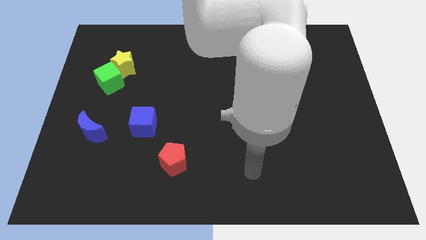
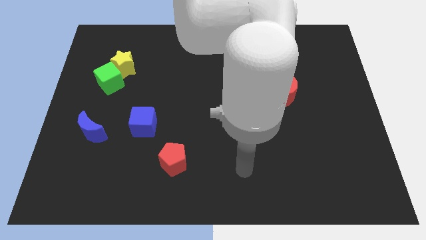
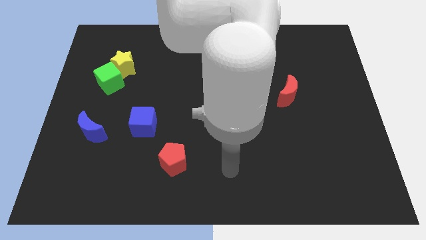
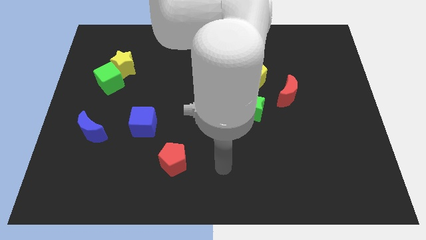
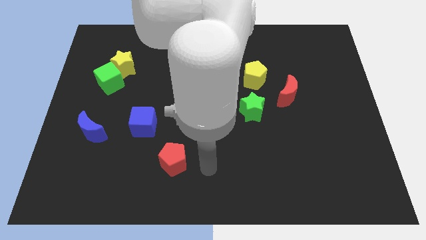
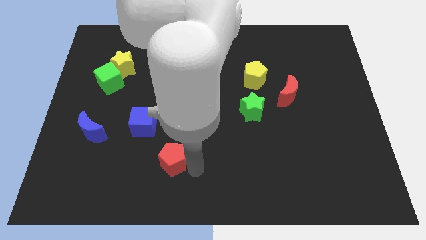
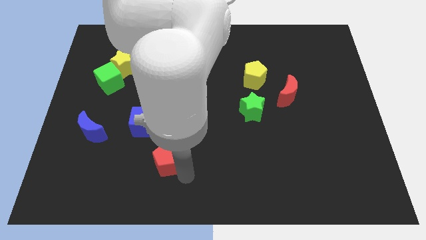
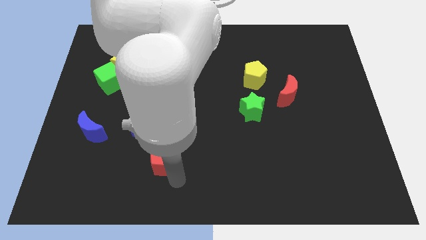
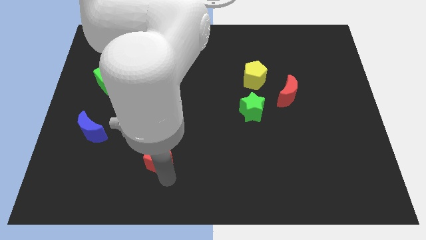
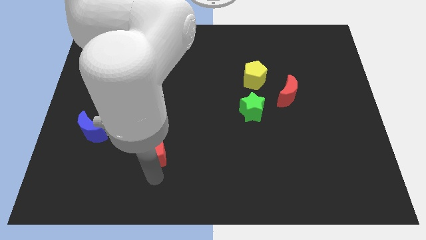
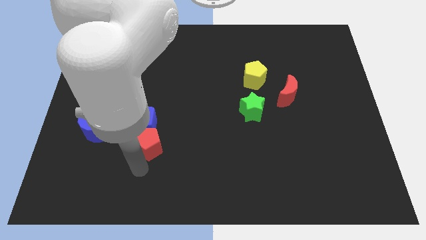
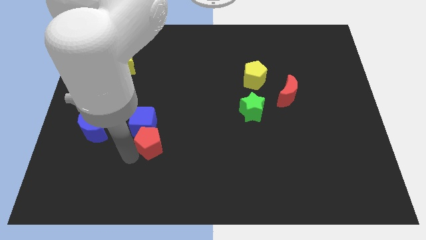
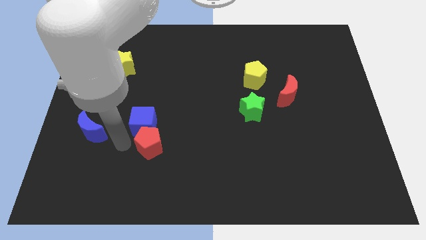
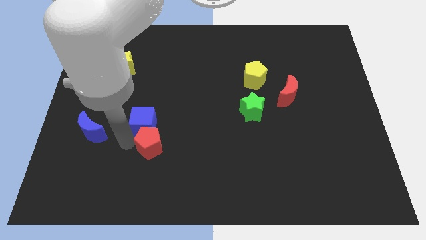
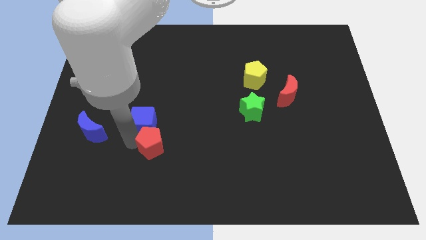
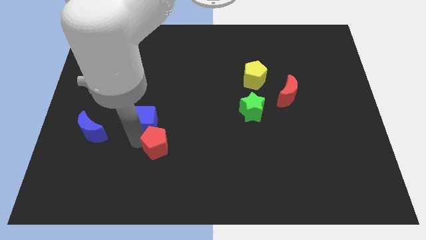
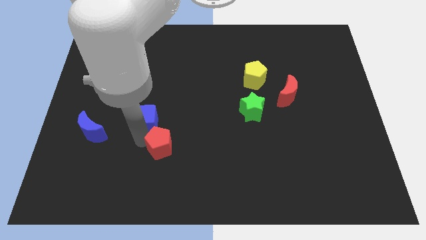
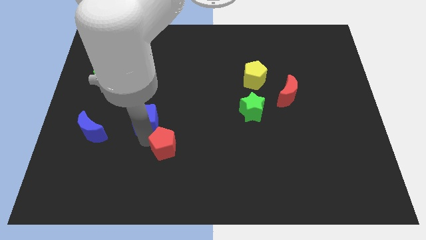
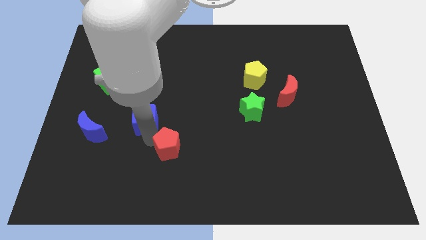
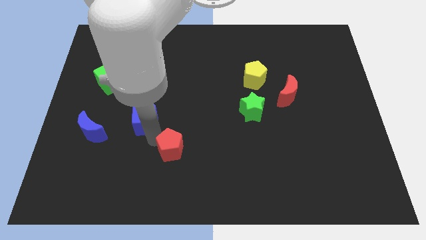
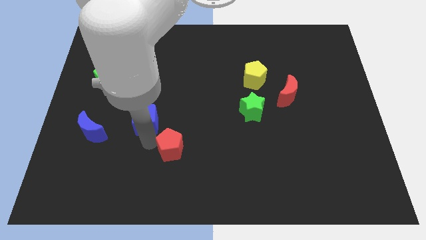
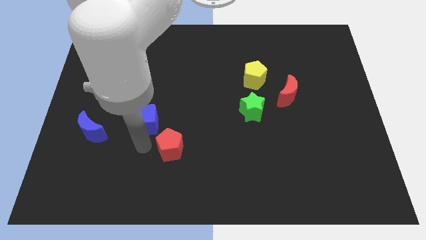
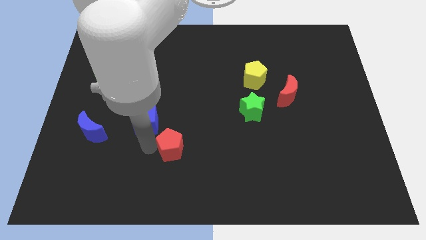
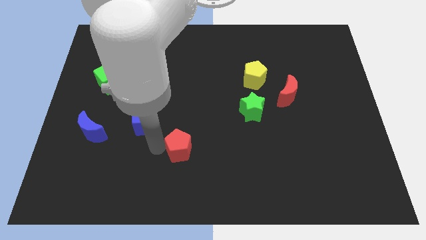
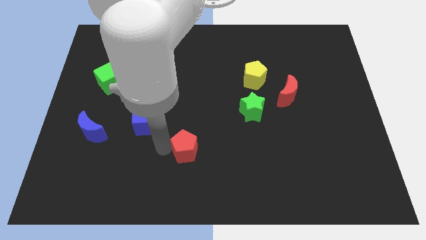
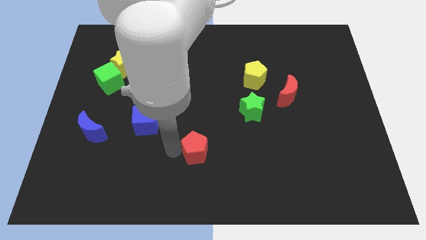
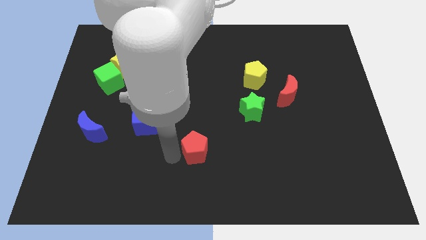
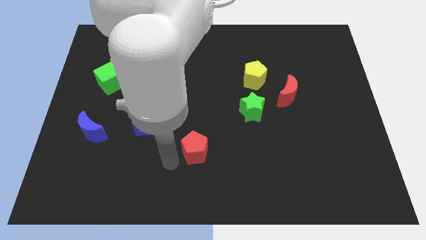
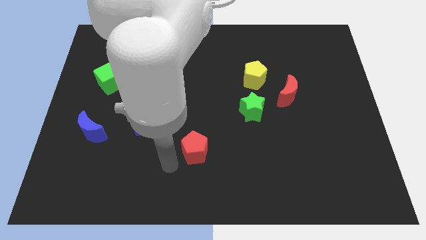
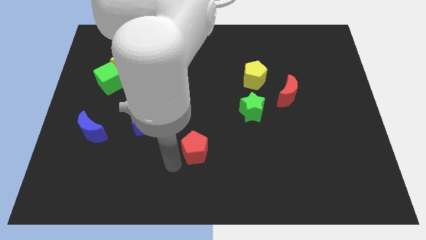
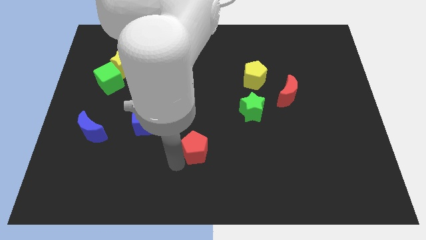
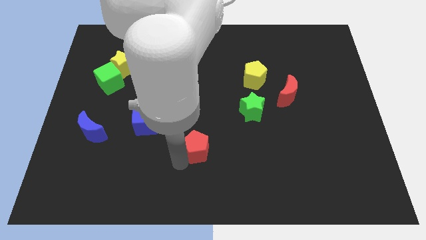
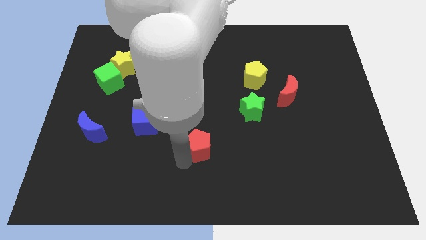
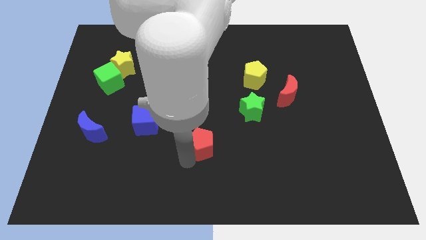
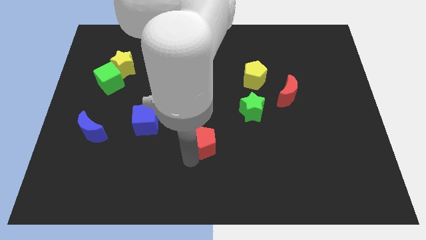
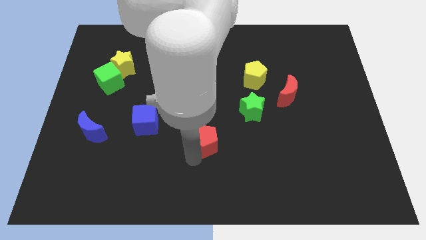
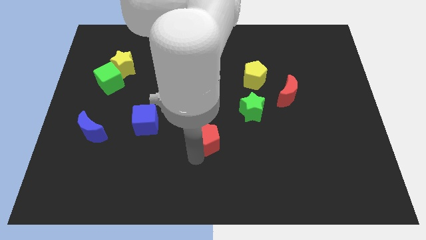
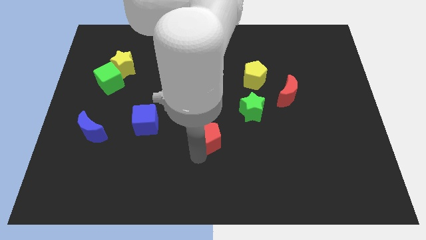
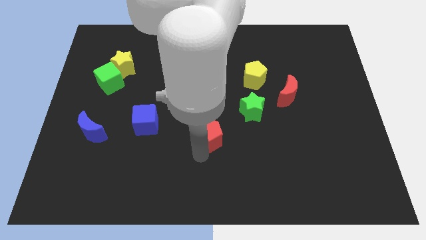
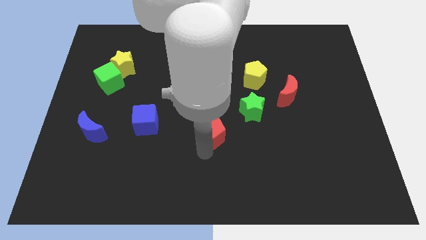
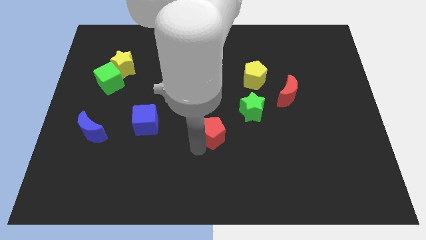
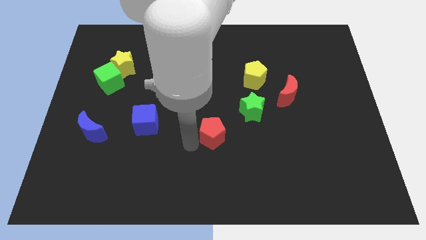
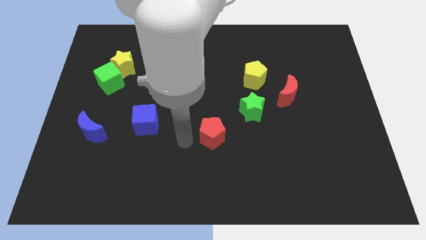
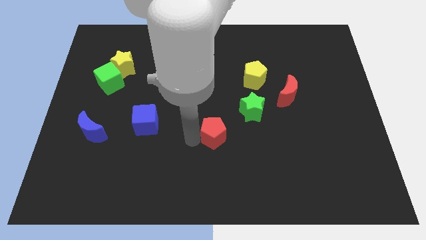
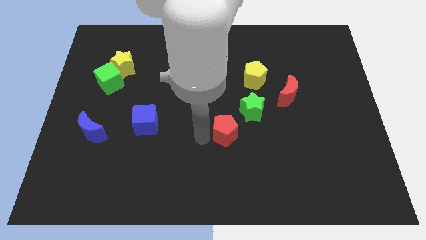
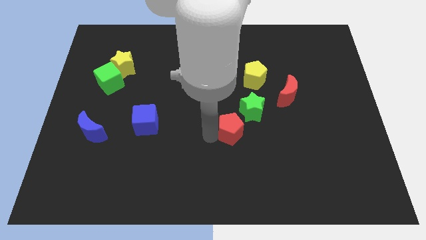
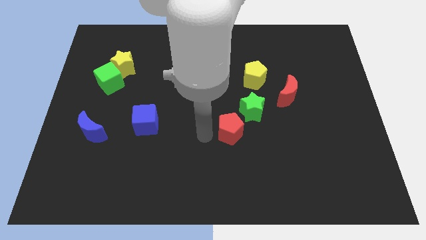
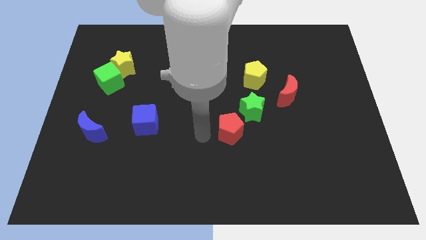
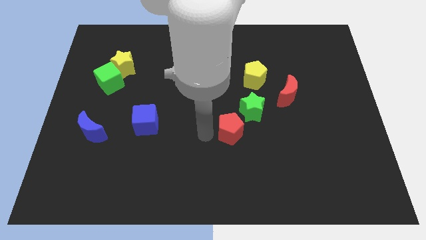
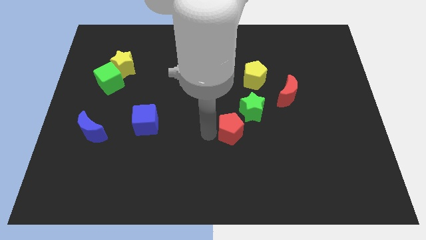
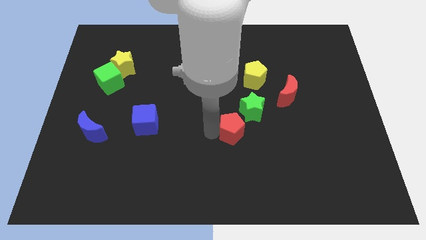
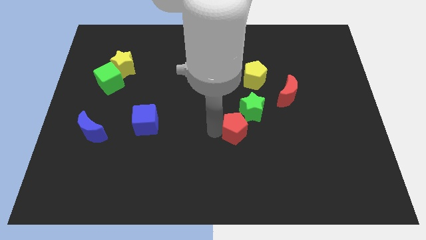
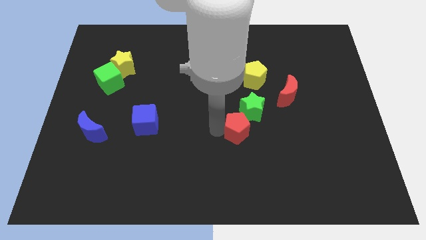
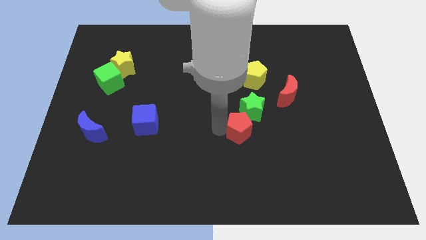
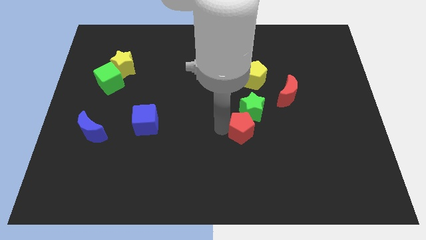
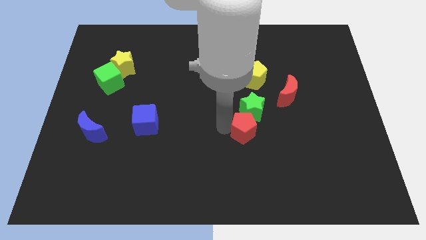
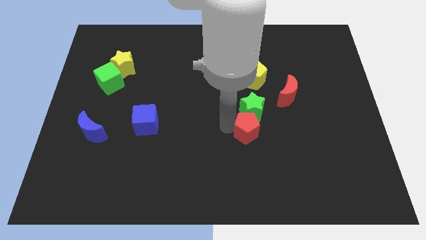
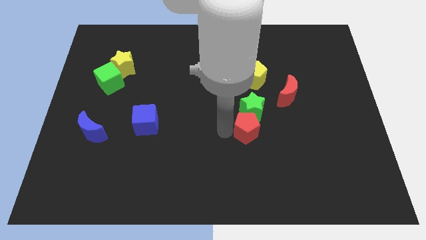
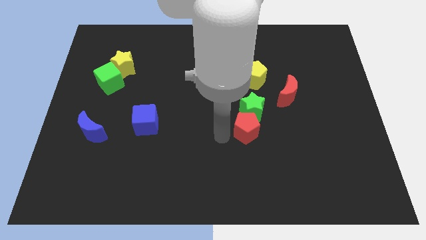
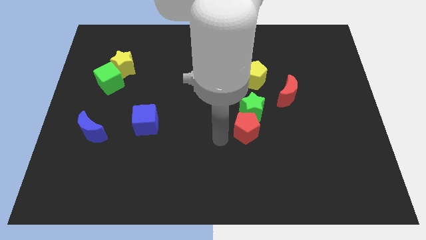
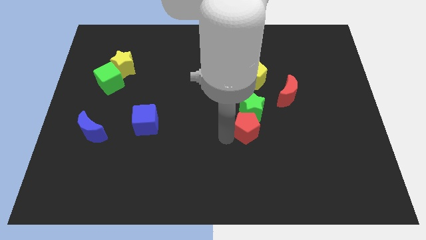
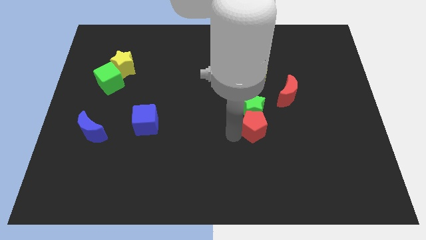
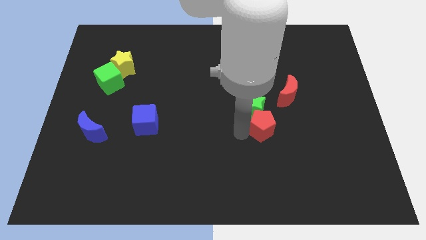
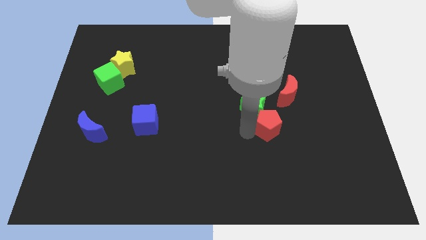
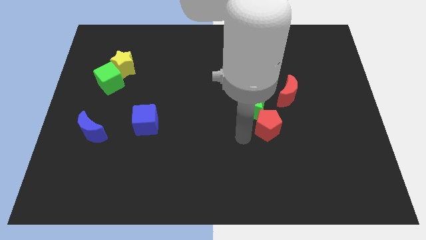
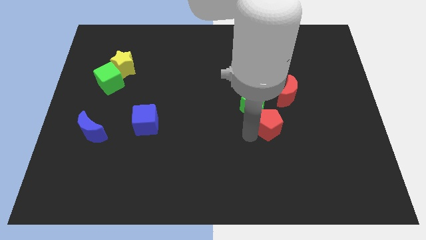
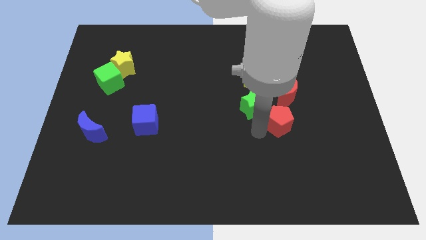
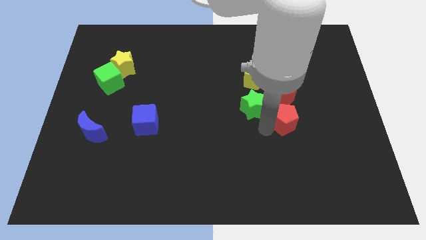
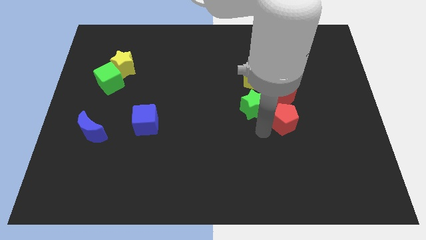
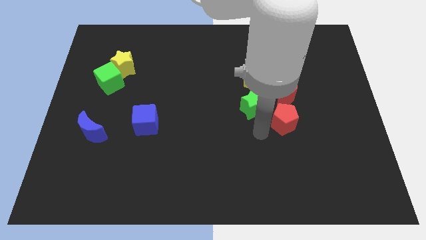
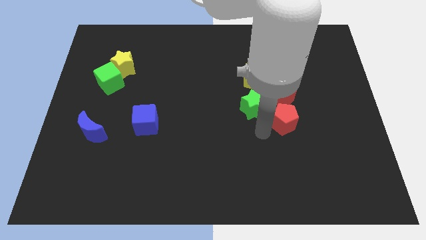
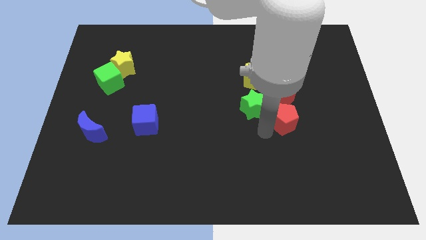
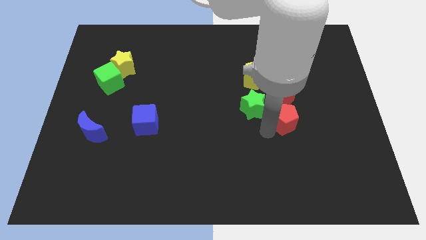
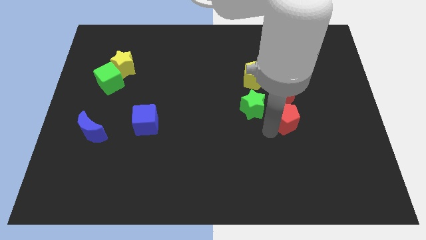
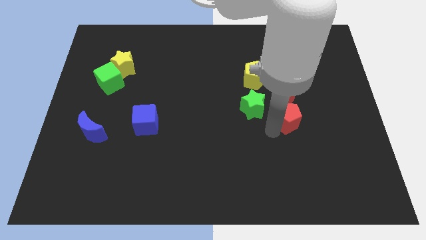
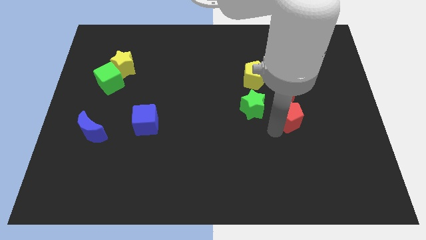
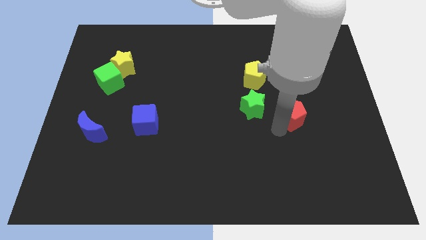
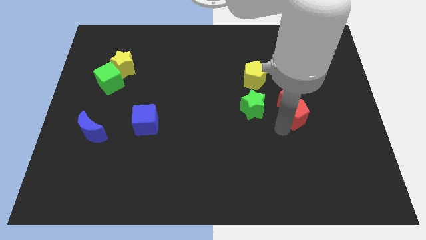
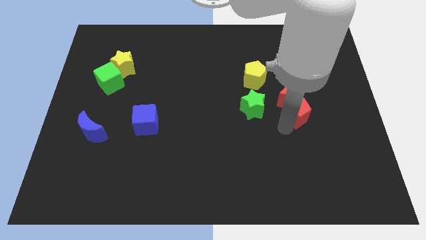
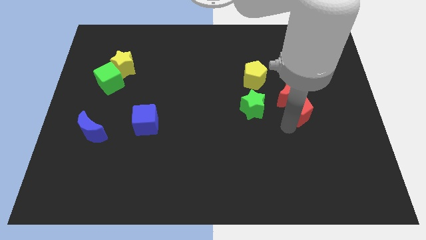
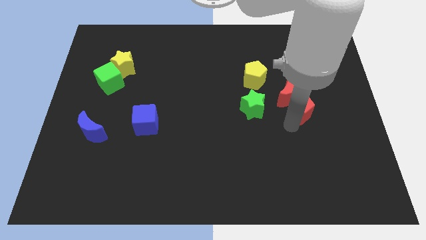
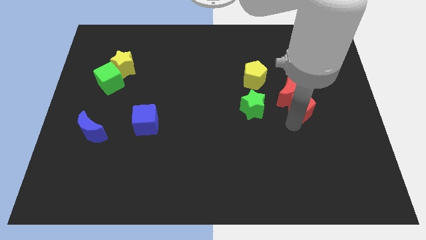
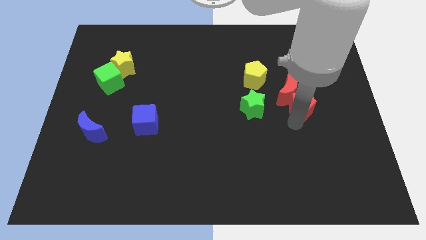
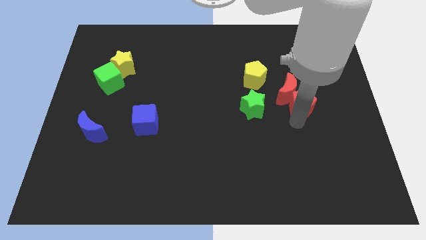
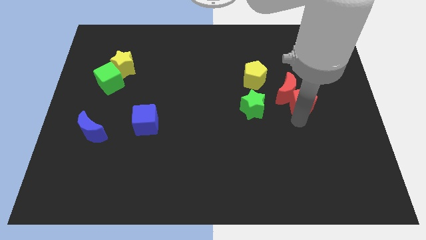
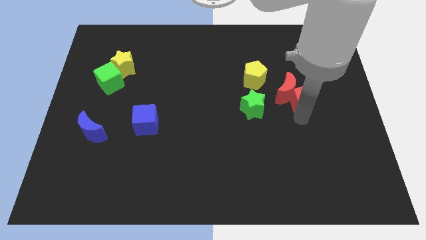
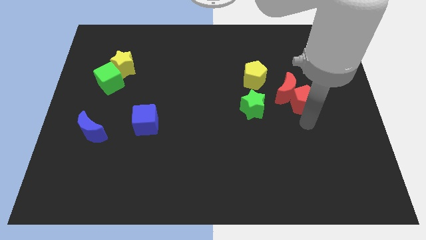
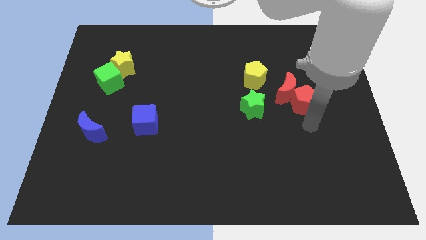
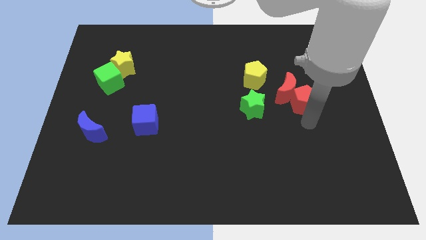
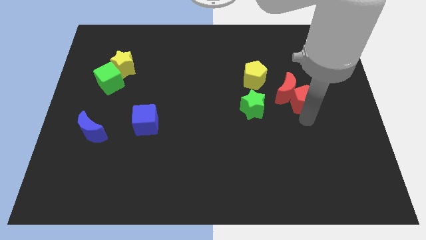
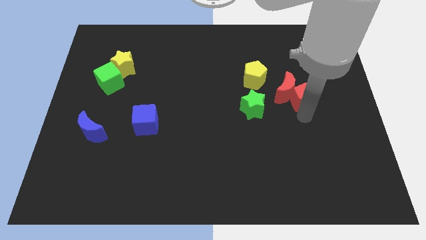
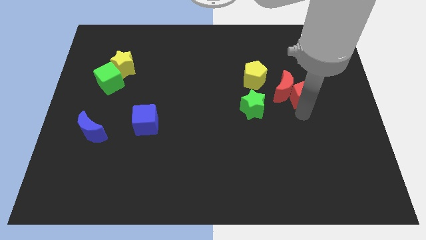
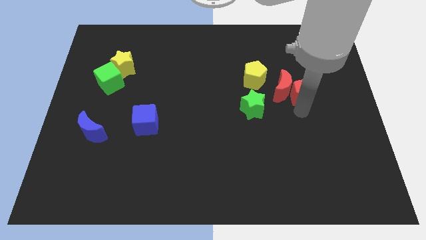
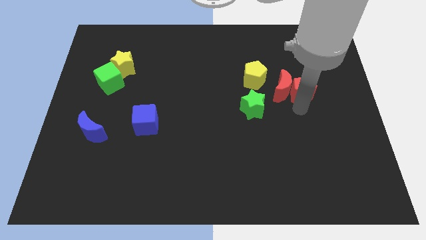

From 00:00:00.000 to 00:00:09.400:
push the red pentagon right of the yellow pentagon
